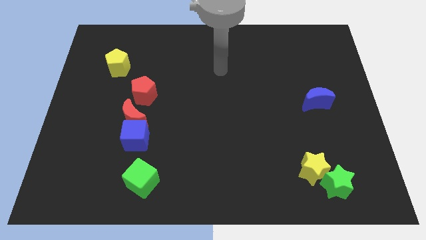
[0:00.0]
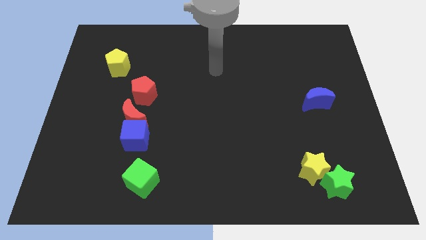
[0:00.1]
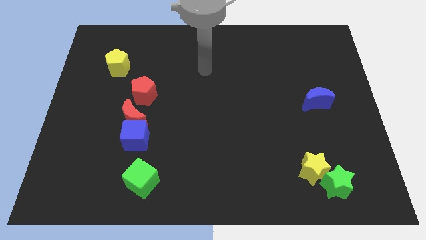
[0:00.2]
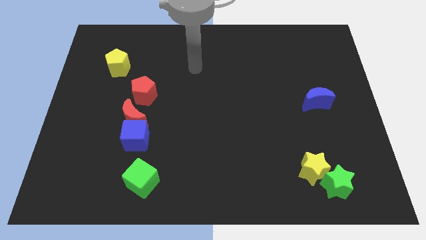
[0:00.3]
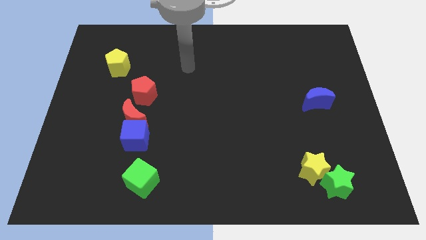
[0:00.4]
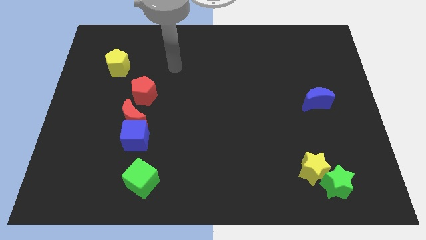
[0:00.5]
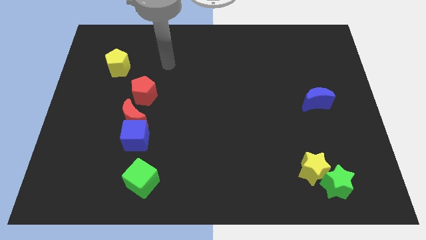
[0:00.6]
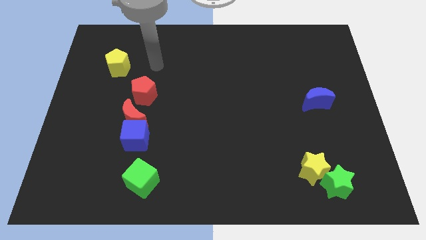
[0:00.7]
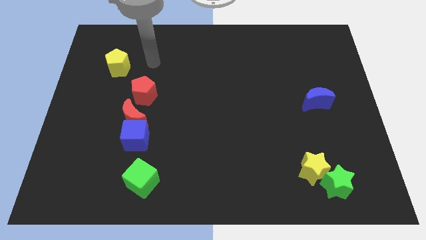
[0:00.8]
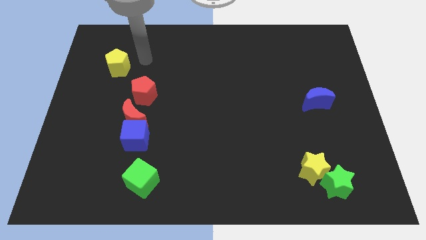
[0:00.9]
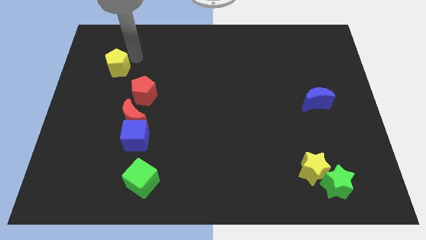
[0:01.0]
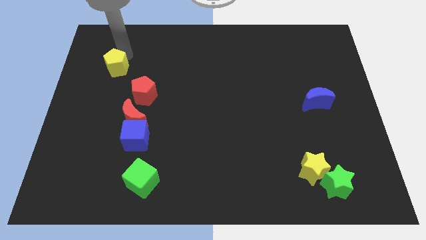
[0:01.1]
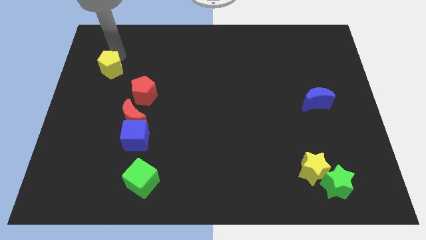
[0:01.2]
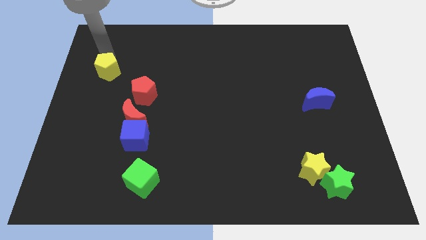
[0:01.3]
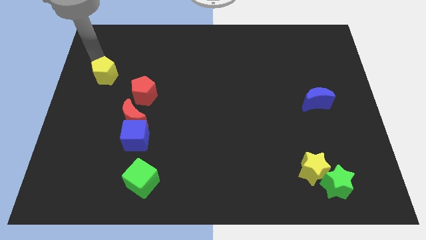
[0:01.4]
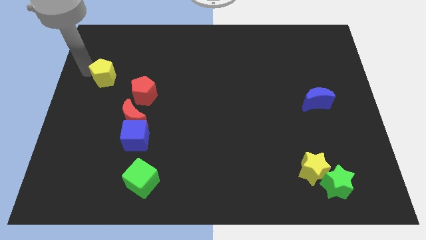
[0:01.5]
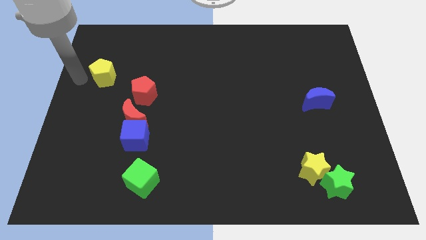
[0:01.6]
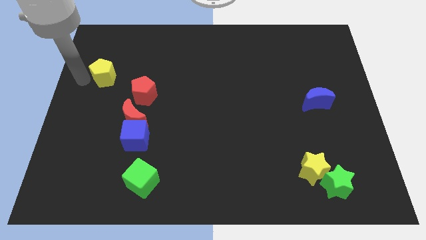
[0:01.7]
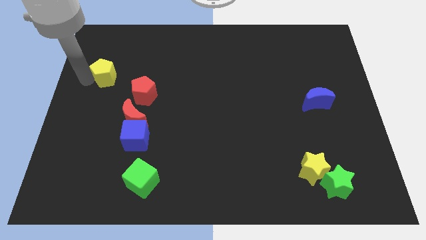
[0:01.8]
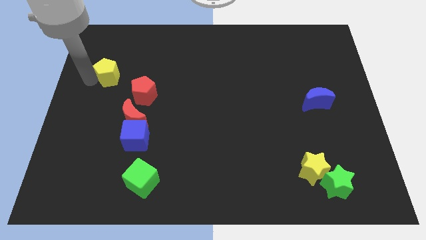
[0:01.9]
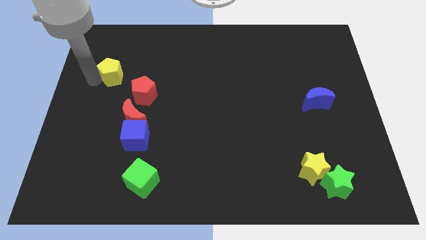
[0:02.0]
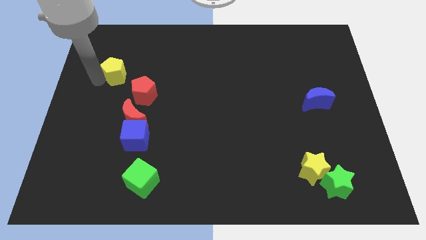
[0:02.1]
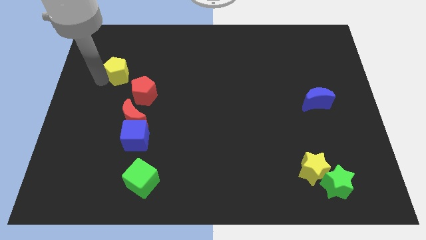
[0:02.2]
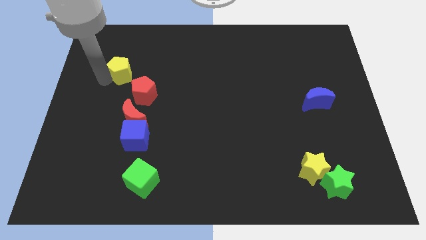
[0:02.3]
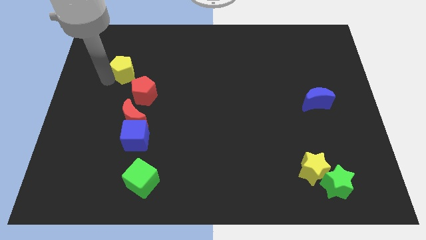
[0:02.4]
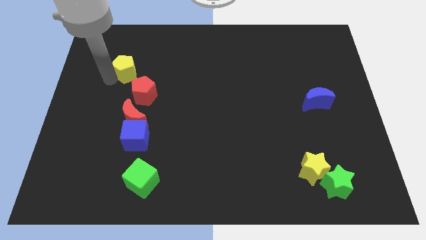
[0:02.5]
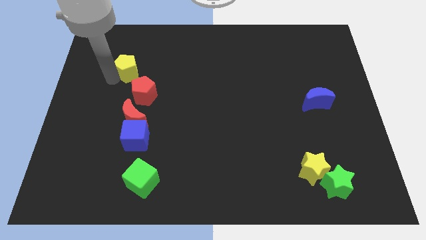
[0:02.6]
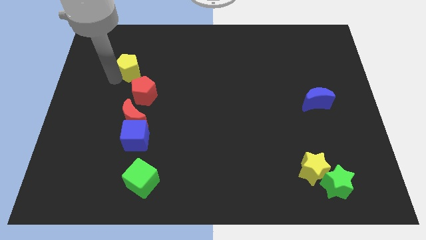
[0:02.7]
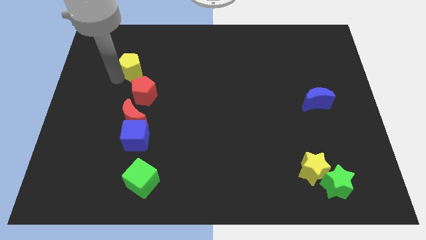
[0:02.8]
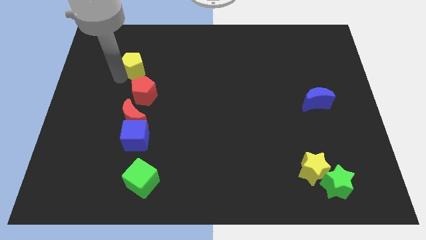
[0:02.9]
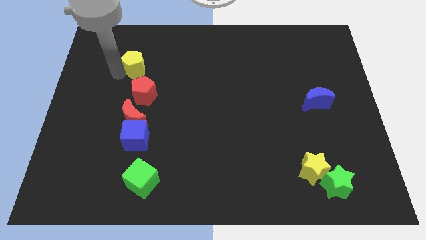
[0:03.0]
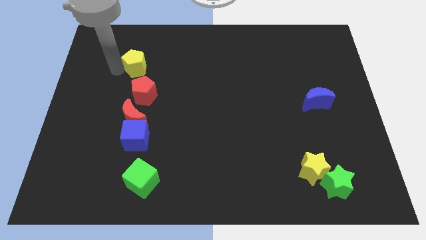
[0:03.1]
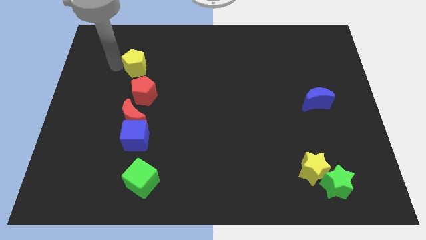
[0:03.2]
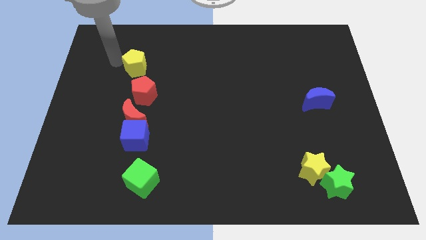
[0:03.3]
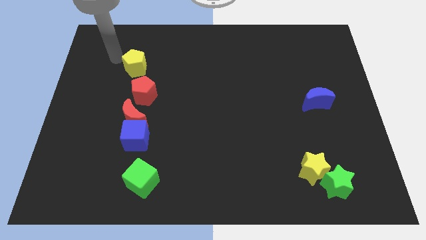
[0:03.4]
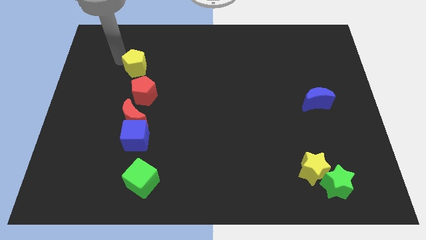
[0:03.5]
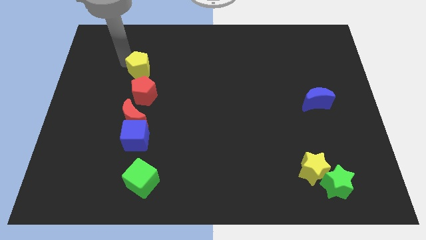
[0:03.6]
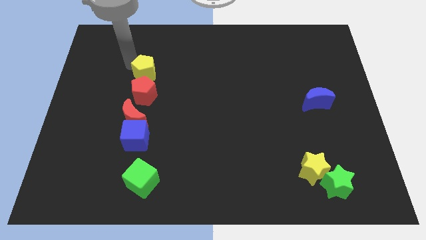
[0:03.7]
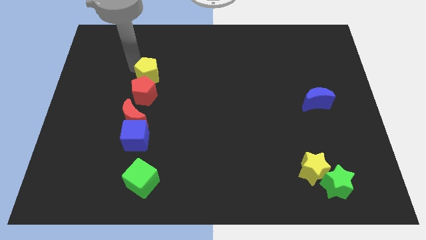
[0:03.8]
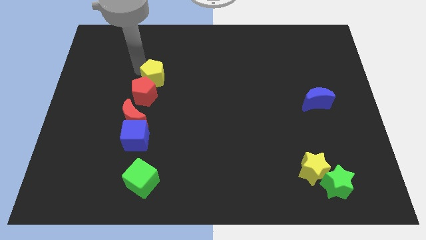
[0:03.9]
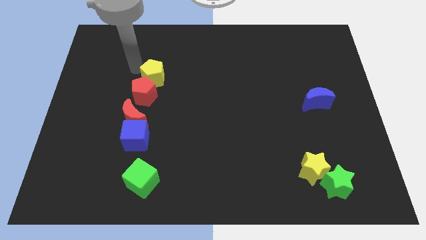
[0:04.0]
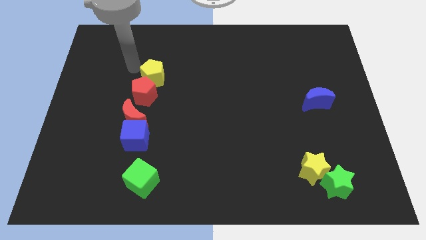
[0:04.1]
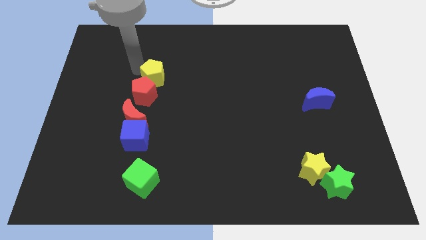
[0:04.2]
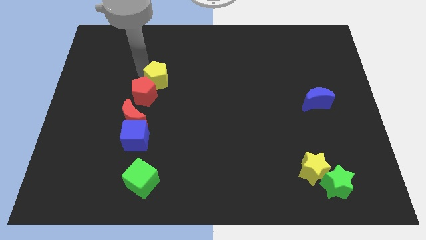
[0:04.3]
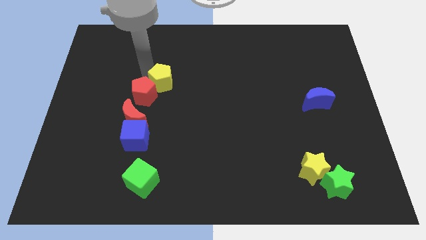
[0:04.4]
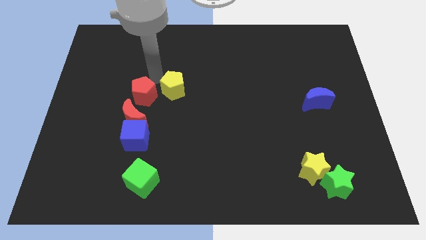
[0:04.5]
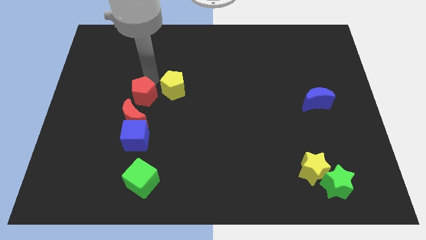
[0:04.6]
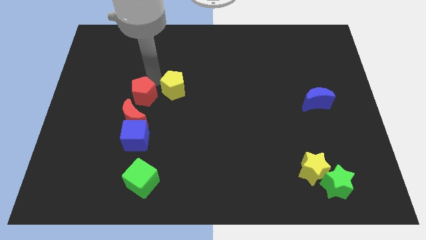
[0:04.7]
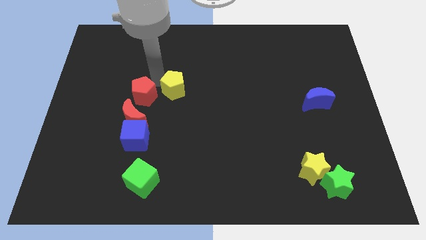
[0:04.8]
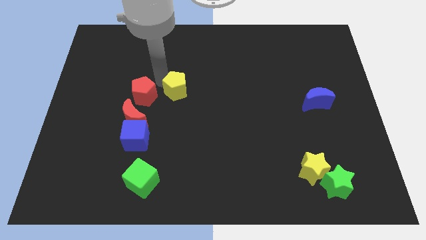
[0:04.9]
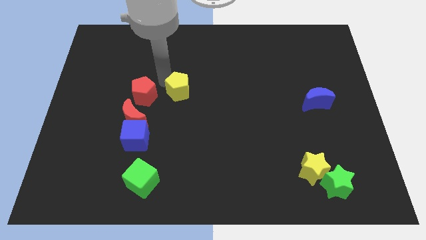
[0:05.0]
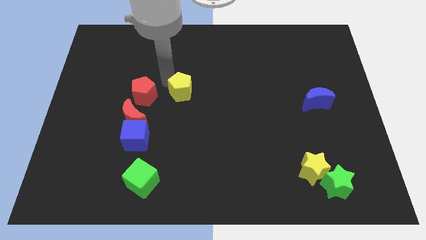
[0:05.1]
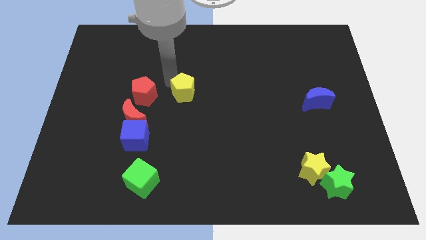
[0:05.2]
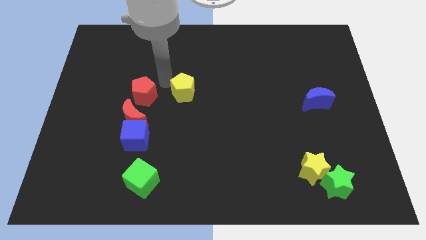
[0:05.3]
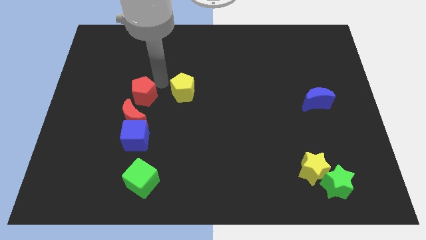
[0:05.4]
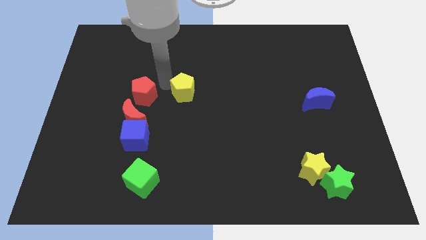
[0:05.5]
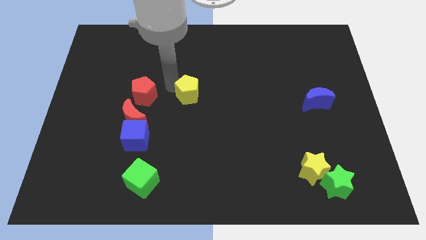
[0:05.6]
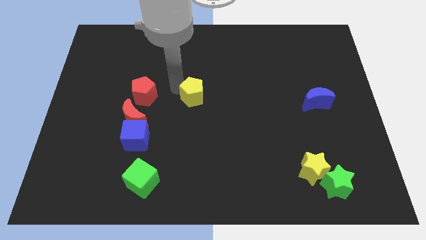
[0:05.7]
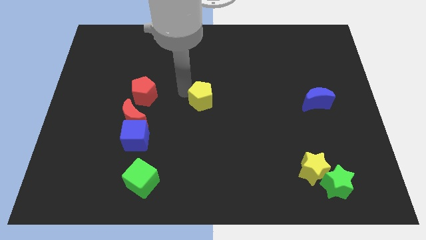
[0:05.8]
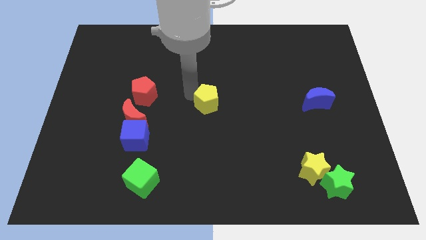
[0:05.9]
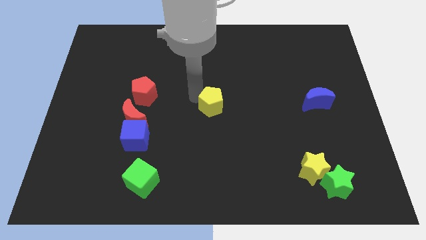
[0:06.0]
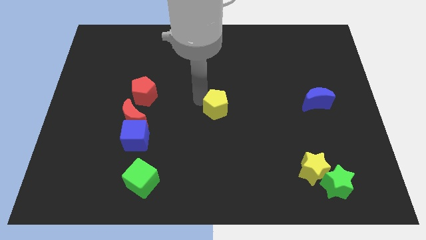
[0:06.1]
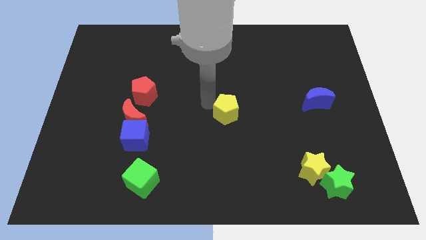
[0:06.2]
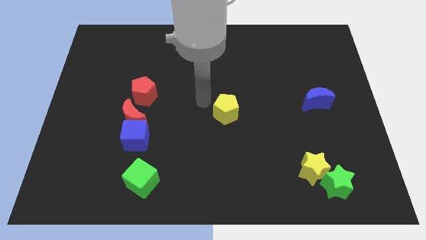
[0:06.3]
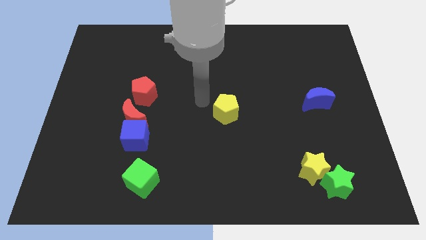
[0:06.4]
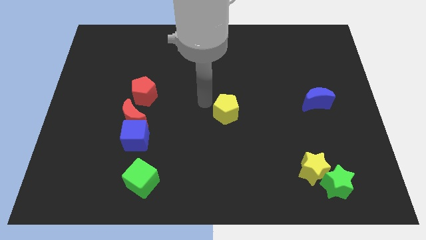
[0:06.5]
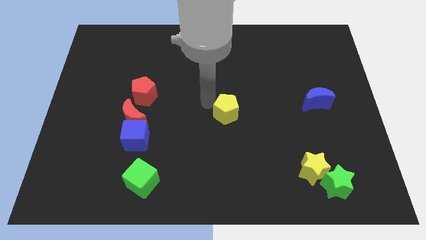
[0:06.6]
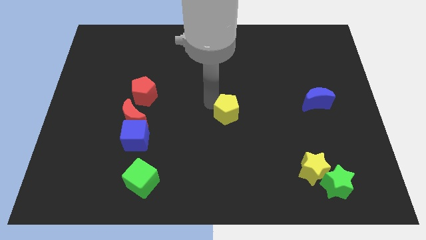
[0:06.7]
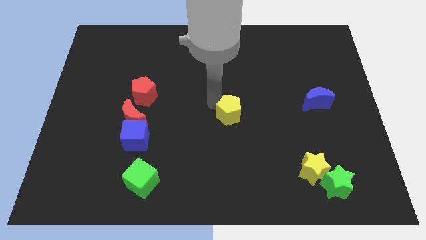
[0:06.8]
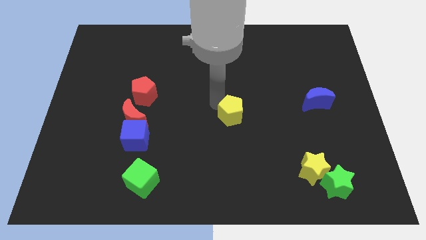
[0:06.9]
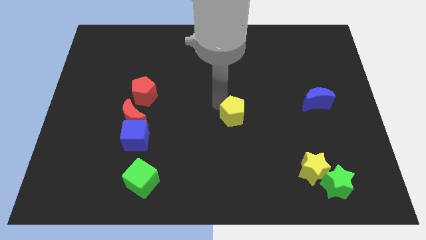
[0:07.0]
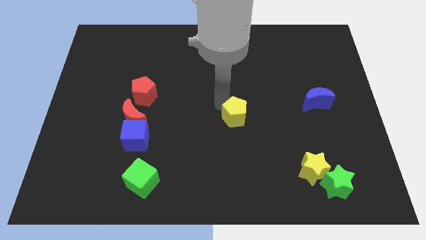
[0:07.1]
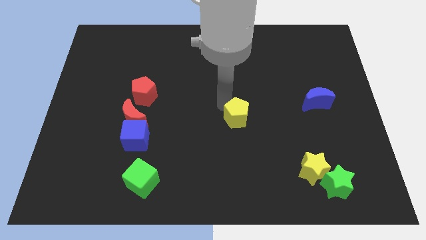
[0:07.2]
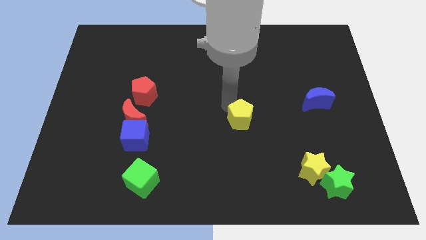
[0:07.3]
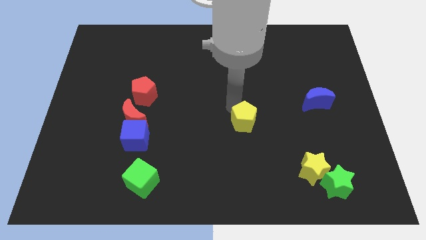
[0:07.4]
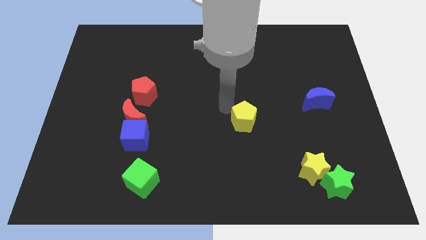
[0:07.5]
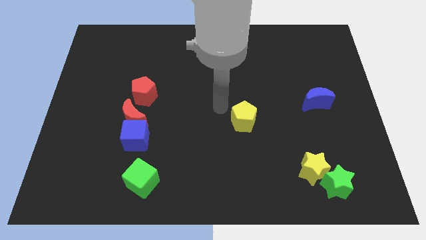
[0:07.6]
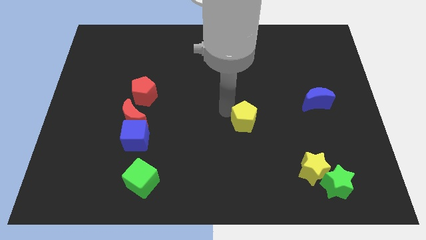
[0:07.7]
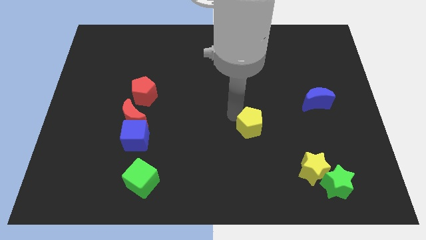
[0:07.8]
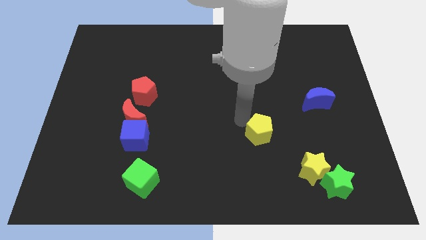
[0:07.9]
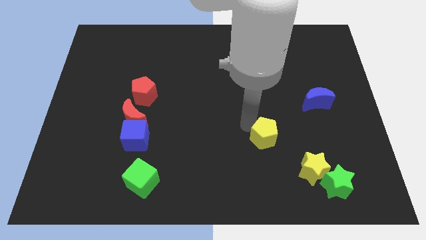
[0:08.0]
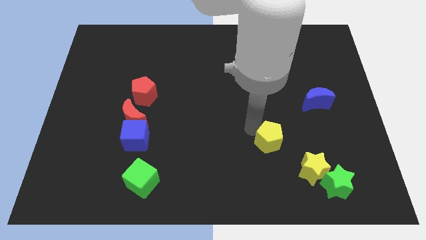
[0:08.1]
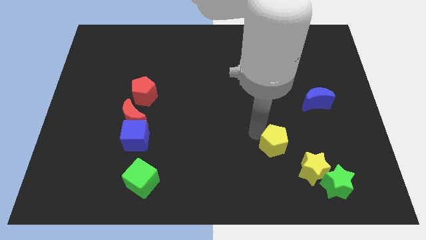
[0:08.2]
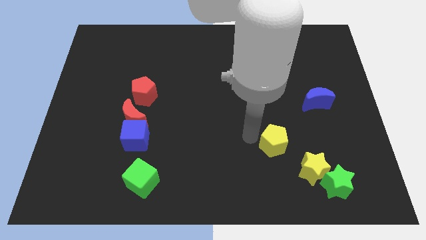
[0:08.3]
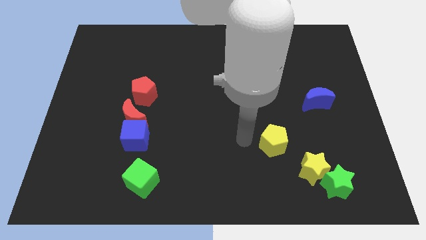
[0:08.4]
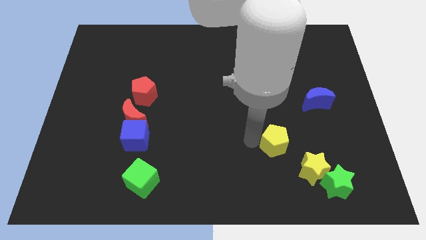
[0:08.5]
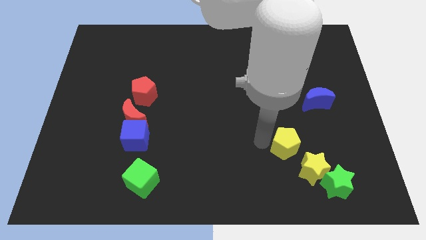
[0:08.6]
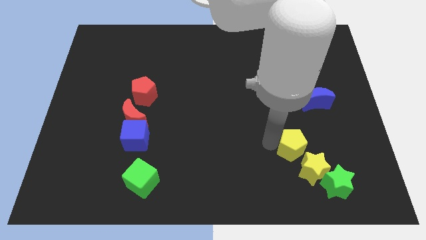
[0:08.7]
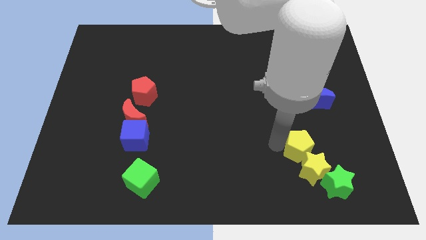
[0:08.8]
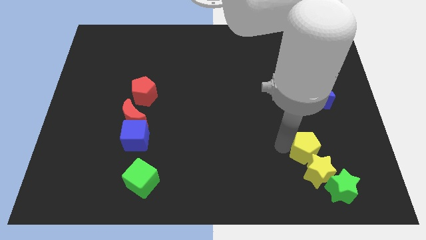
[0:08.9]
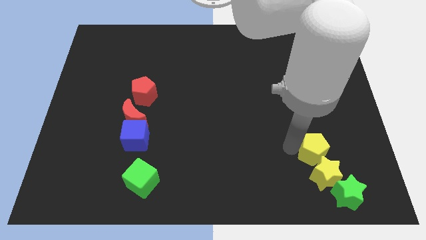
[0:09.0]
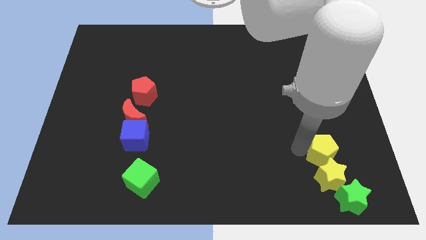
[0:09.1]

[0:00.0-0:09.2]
move the yellow pentagon to the top right side of the yellow star
